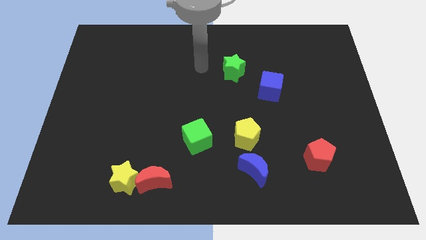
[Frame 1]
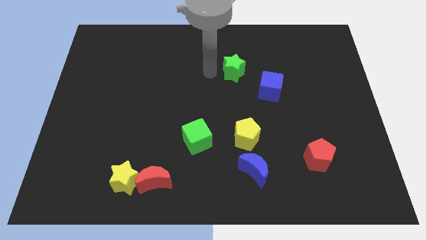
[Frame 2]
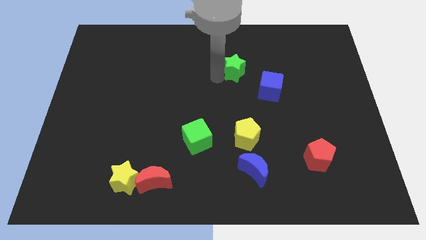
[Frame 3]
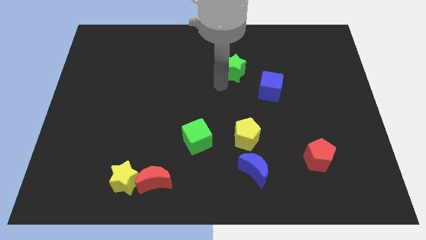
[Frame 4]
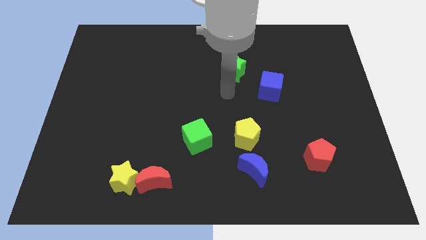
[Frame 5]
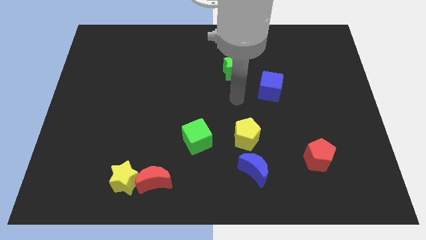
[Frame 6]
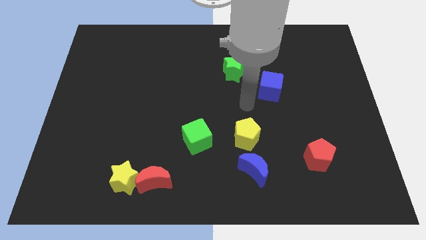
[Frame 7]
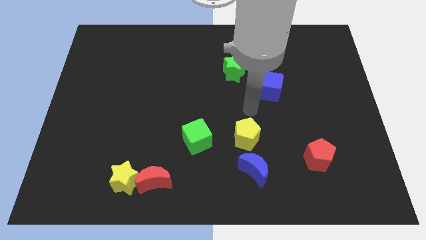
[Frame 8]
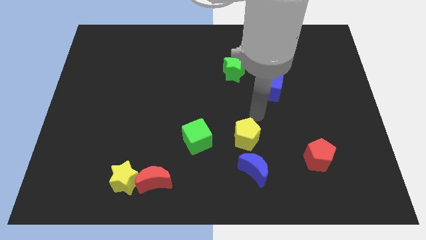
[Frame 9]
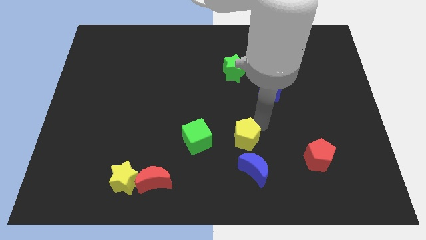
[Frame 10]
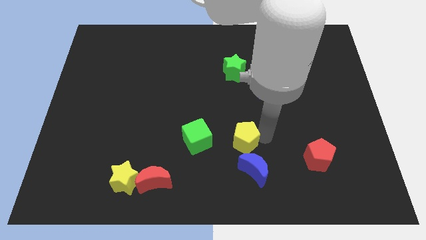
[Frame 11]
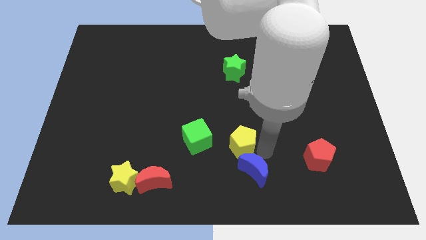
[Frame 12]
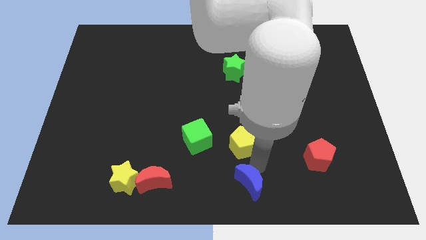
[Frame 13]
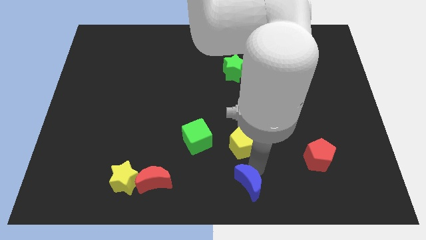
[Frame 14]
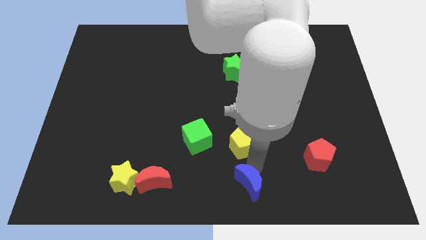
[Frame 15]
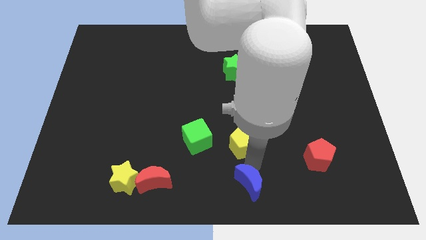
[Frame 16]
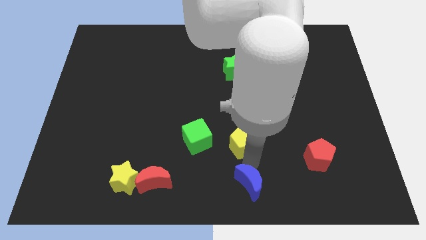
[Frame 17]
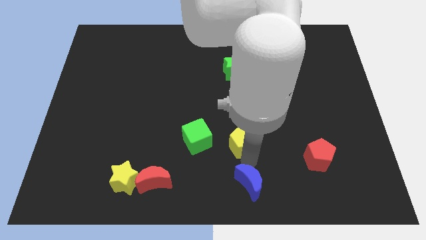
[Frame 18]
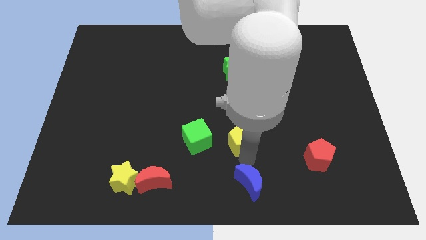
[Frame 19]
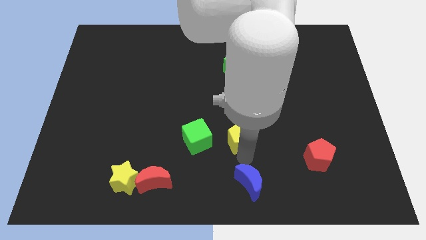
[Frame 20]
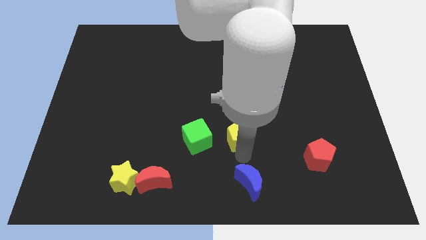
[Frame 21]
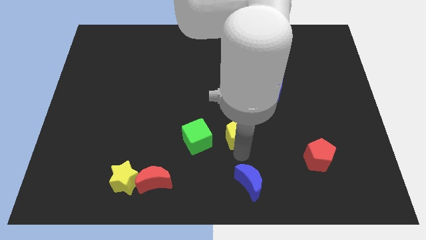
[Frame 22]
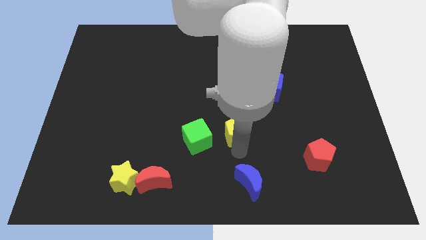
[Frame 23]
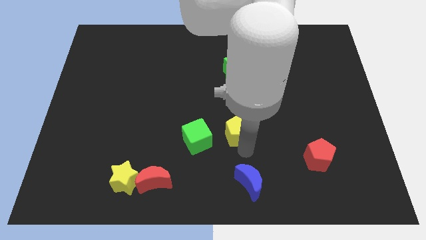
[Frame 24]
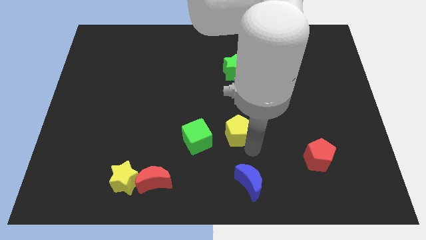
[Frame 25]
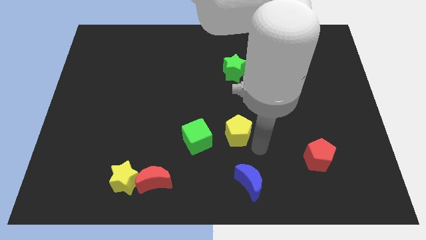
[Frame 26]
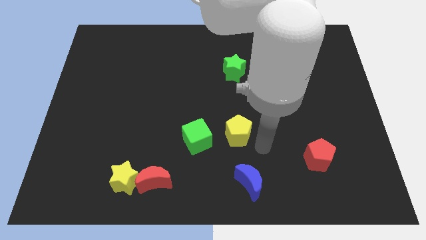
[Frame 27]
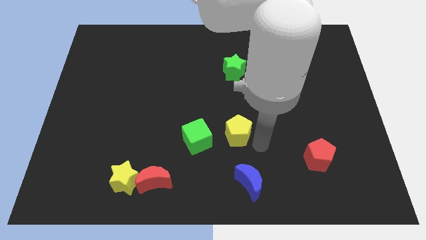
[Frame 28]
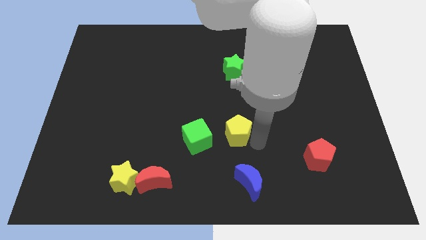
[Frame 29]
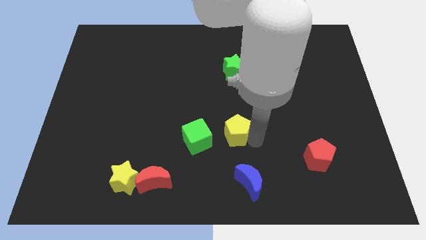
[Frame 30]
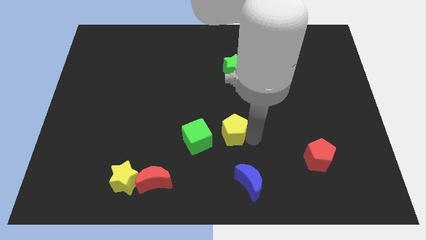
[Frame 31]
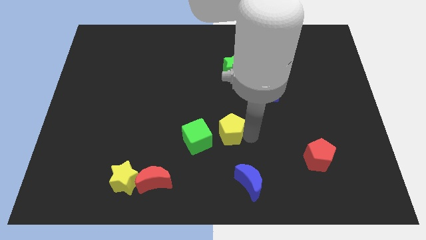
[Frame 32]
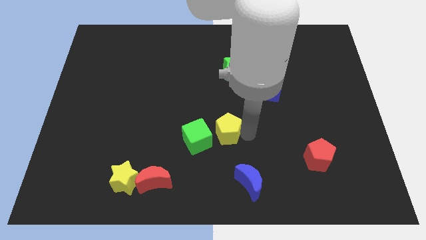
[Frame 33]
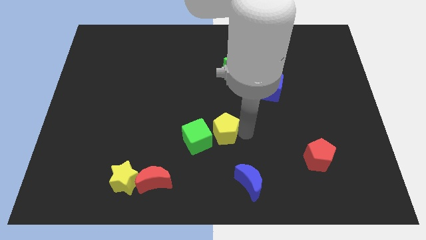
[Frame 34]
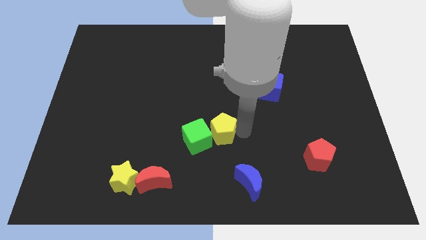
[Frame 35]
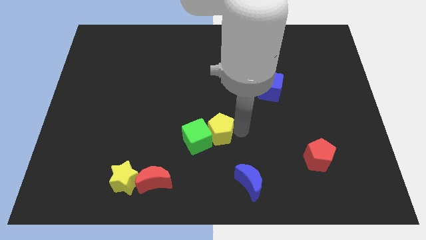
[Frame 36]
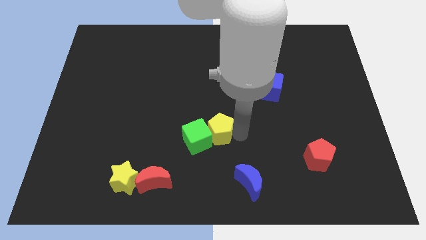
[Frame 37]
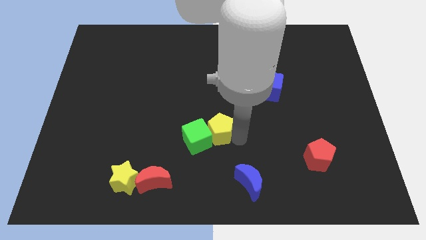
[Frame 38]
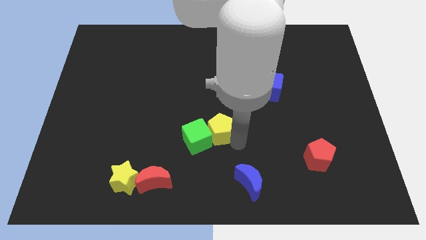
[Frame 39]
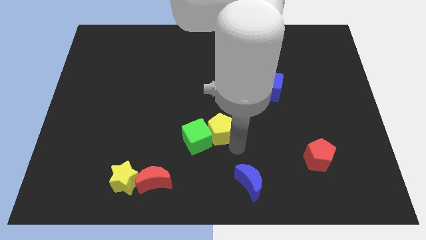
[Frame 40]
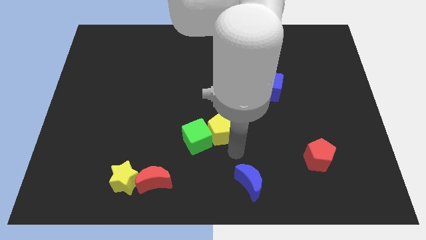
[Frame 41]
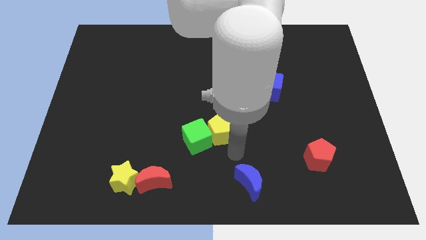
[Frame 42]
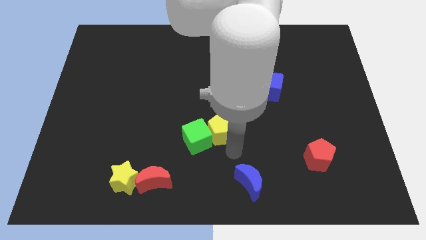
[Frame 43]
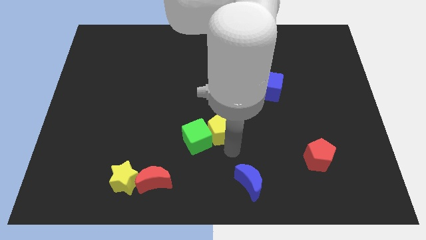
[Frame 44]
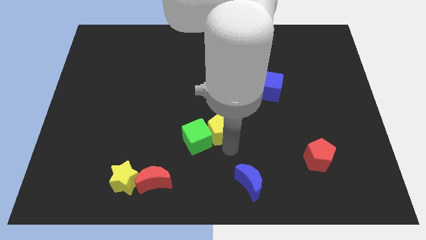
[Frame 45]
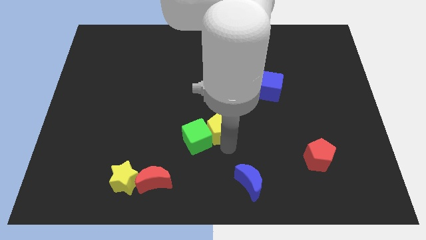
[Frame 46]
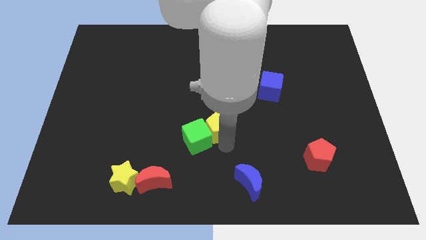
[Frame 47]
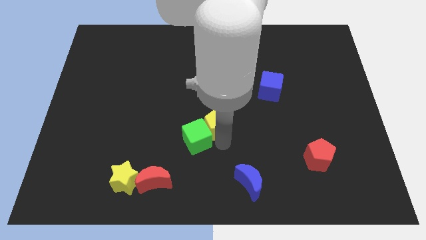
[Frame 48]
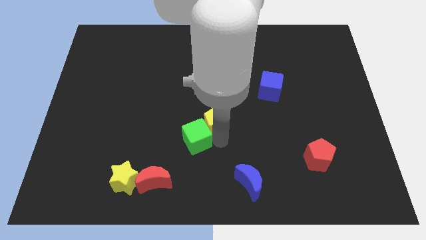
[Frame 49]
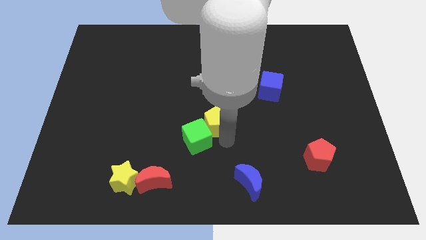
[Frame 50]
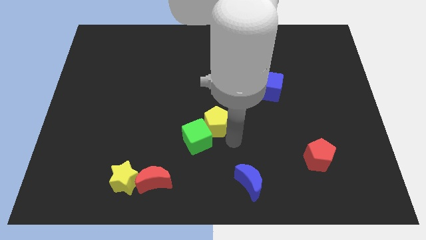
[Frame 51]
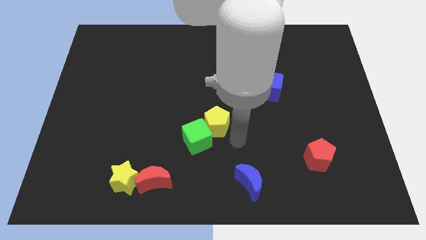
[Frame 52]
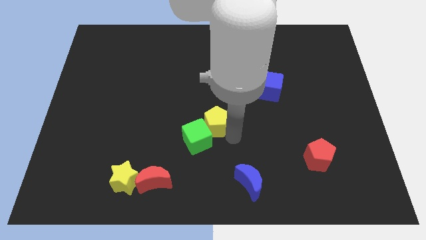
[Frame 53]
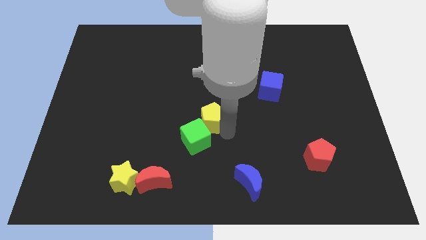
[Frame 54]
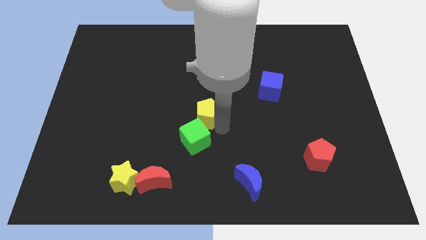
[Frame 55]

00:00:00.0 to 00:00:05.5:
slightly push the yellow pentagon left

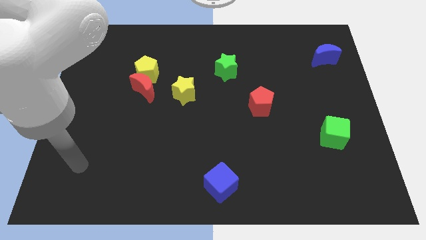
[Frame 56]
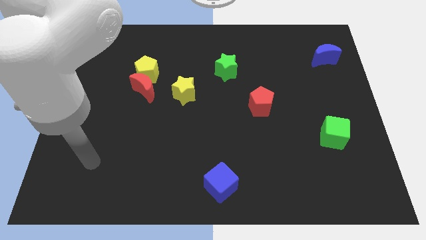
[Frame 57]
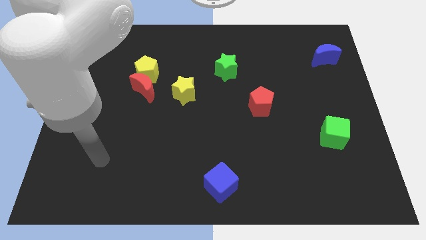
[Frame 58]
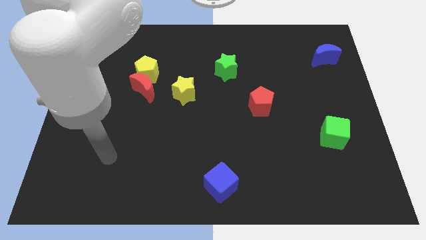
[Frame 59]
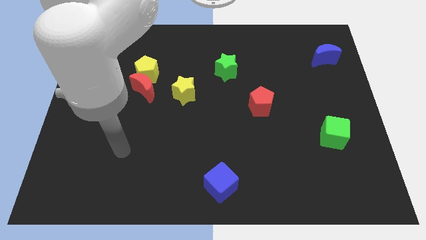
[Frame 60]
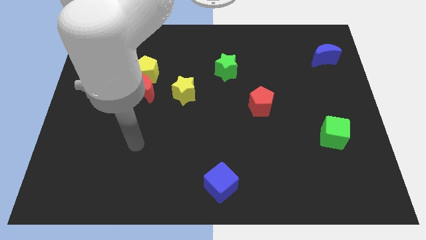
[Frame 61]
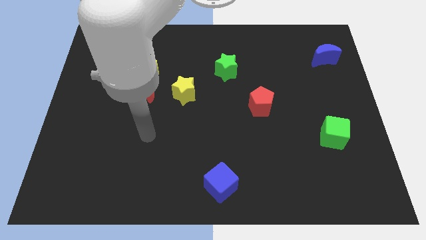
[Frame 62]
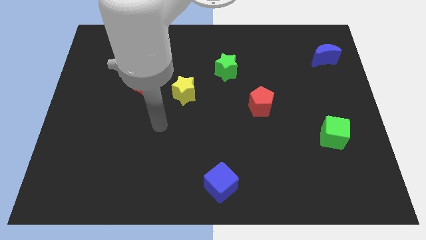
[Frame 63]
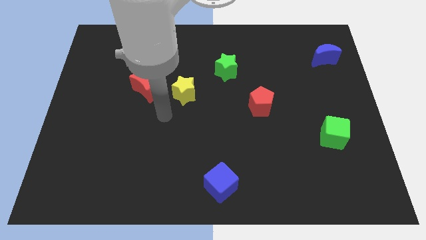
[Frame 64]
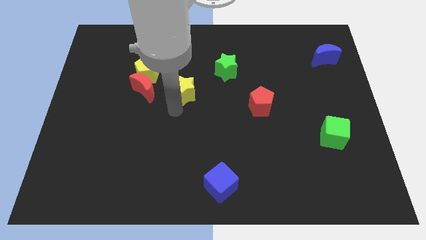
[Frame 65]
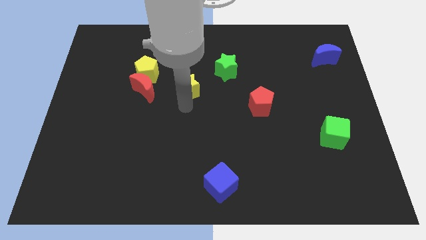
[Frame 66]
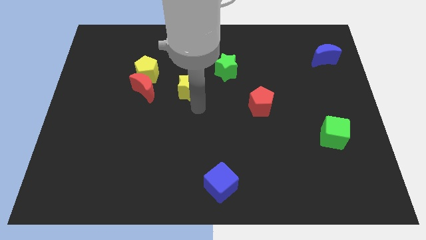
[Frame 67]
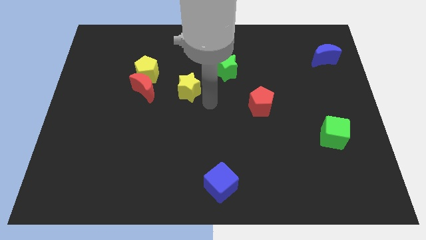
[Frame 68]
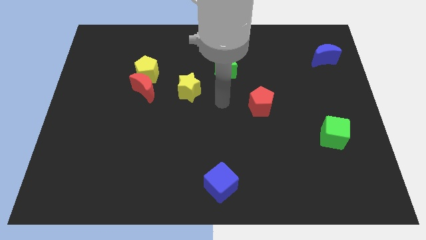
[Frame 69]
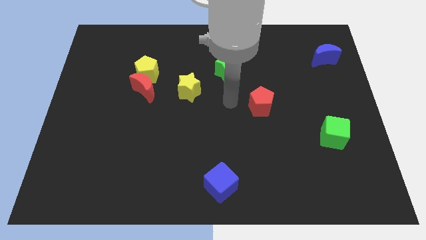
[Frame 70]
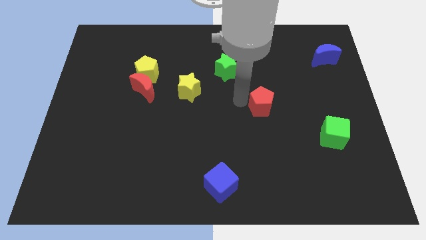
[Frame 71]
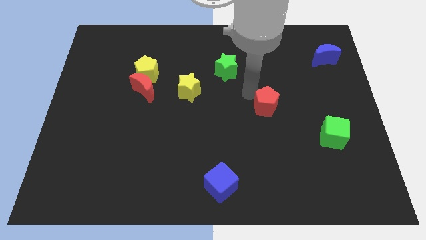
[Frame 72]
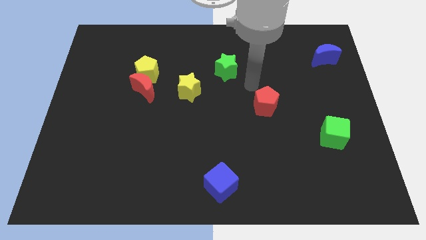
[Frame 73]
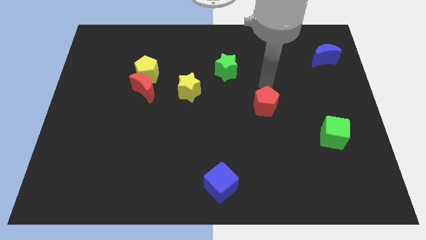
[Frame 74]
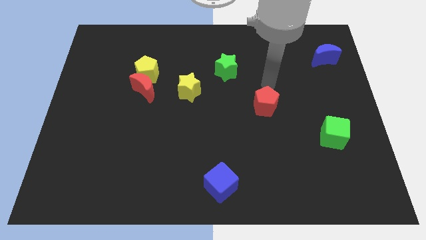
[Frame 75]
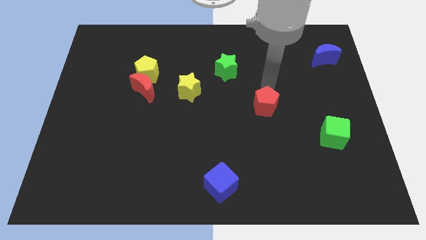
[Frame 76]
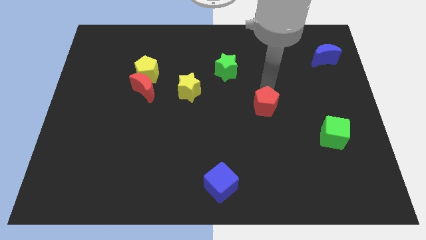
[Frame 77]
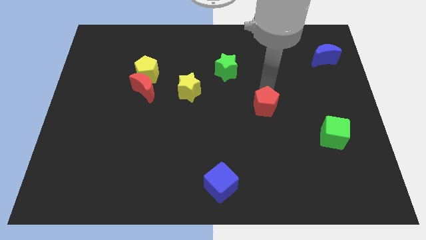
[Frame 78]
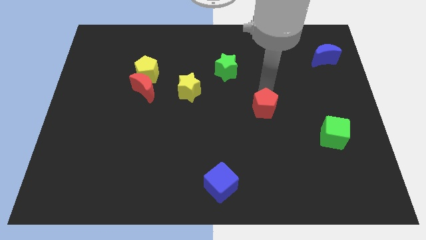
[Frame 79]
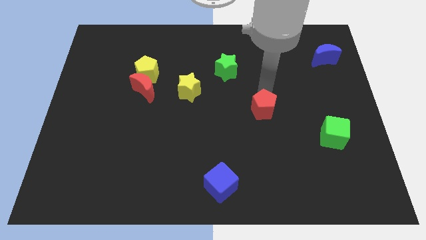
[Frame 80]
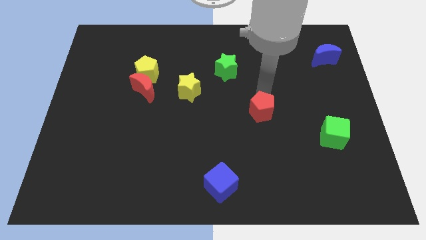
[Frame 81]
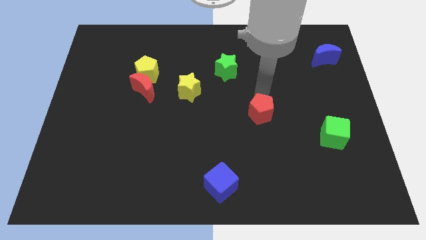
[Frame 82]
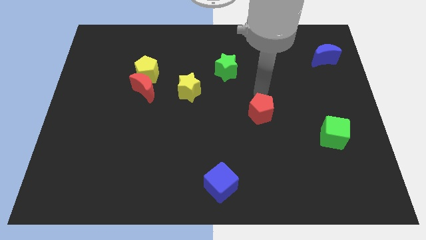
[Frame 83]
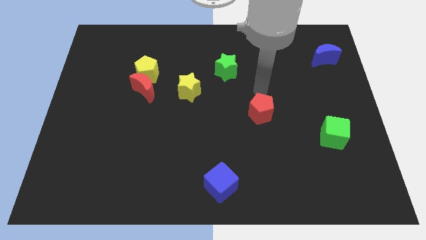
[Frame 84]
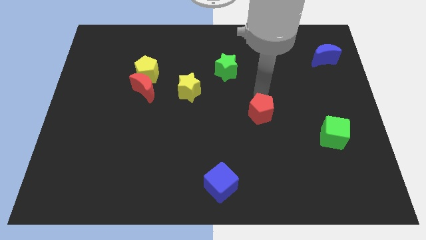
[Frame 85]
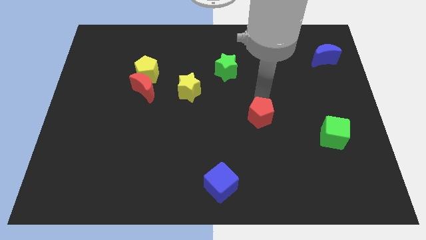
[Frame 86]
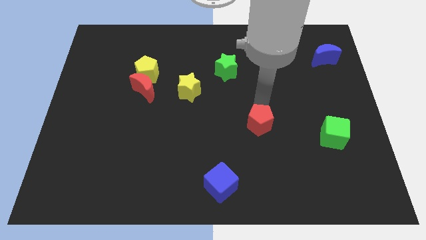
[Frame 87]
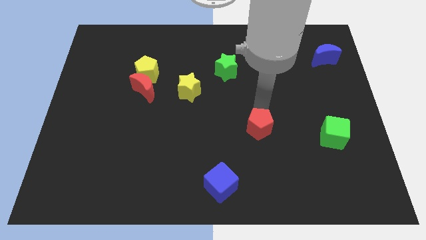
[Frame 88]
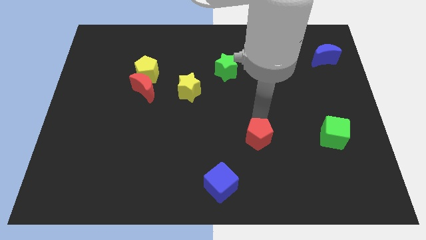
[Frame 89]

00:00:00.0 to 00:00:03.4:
slightly slide the red pentagon downwards
